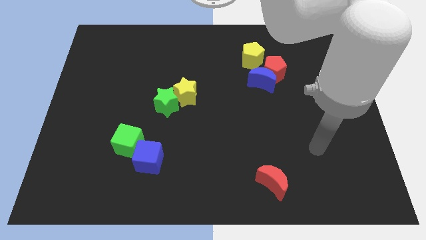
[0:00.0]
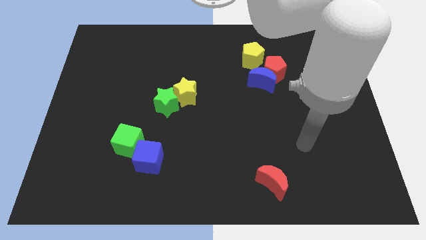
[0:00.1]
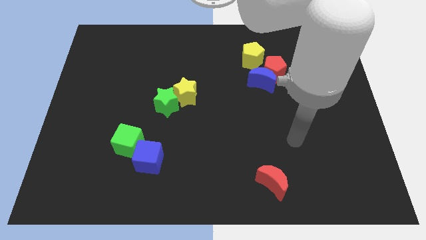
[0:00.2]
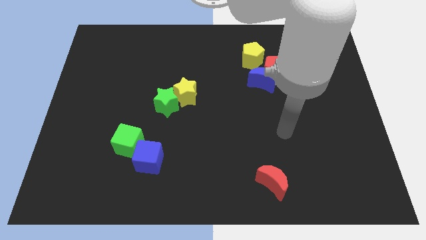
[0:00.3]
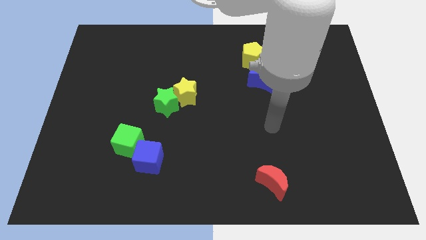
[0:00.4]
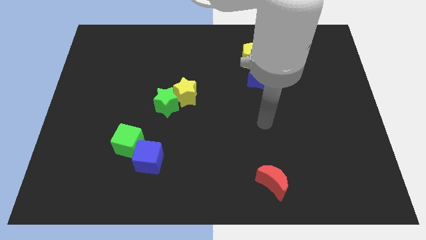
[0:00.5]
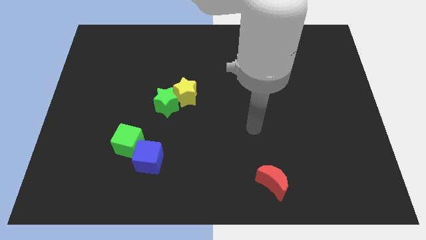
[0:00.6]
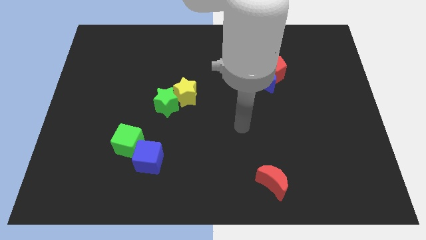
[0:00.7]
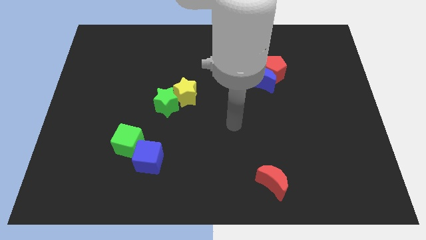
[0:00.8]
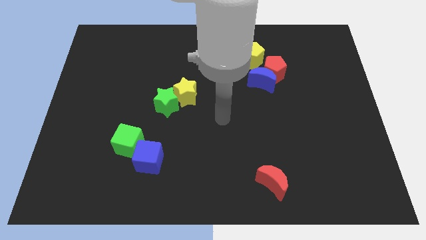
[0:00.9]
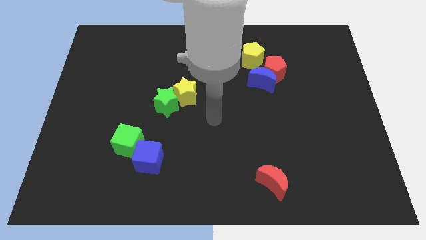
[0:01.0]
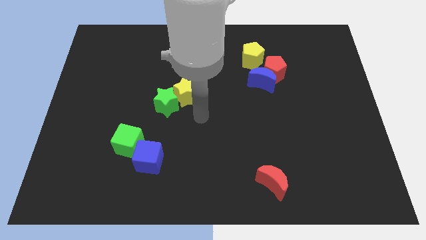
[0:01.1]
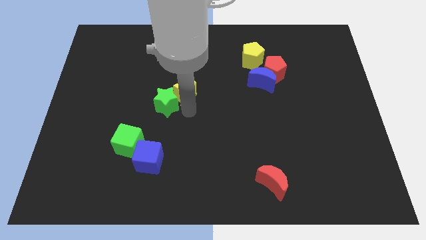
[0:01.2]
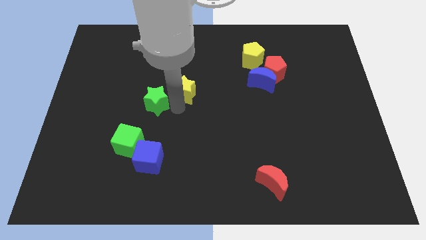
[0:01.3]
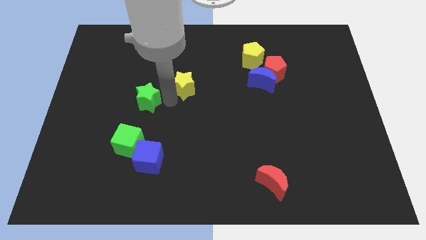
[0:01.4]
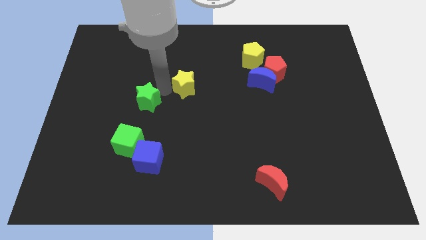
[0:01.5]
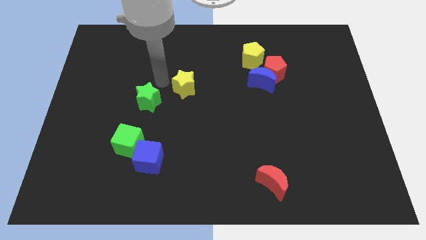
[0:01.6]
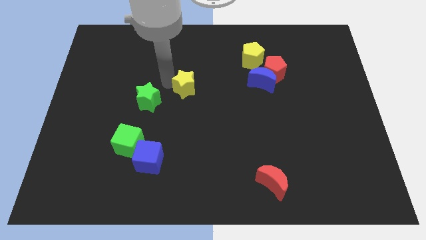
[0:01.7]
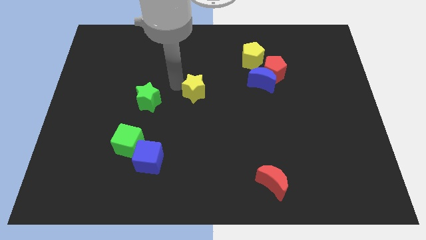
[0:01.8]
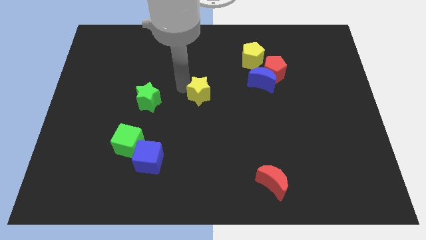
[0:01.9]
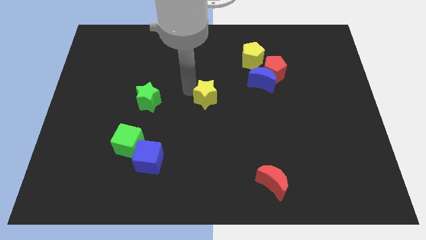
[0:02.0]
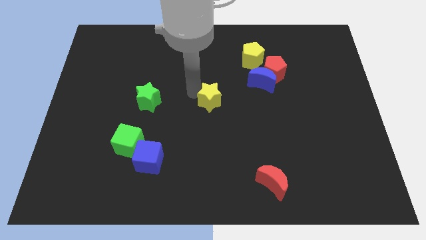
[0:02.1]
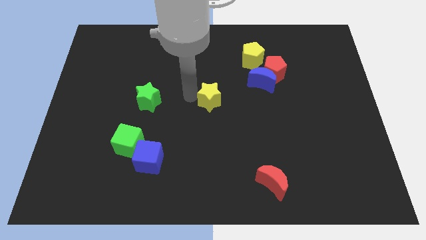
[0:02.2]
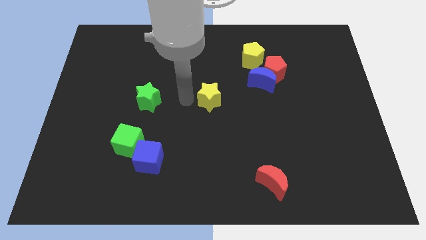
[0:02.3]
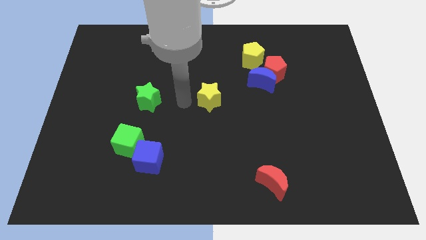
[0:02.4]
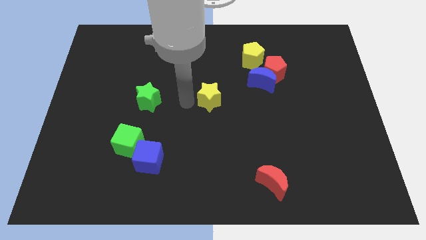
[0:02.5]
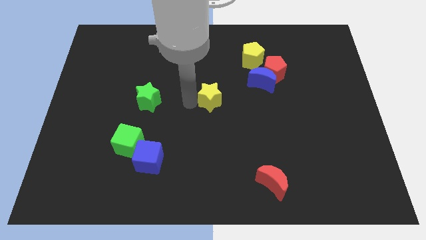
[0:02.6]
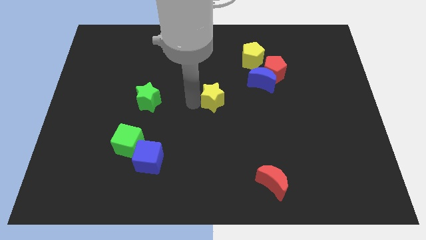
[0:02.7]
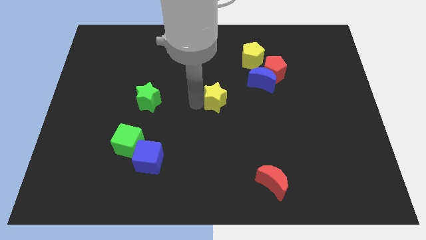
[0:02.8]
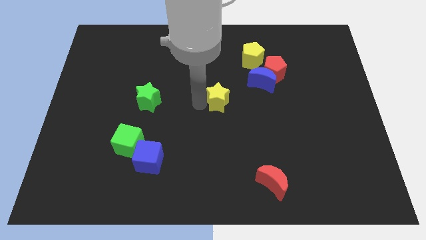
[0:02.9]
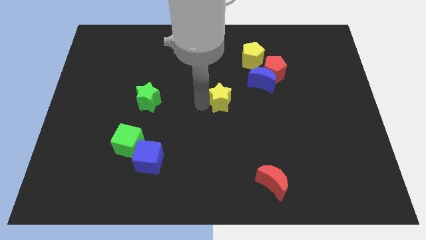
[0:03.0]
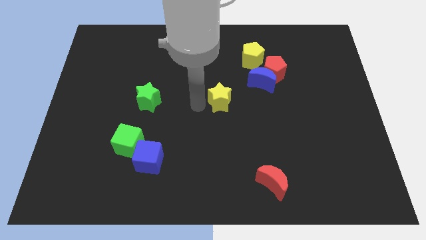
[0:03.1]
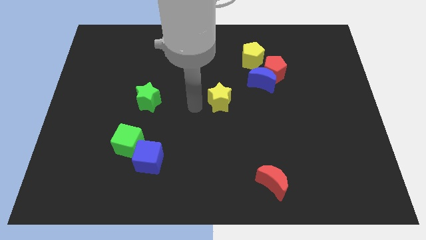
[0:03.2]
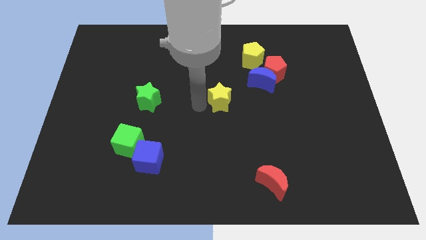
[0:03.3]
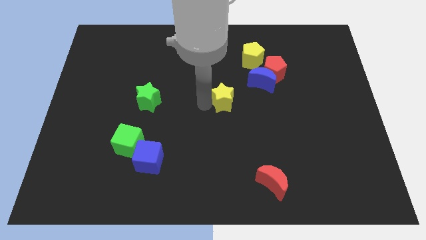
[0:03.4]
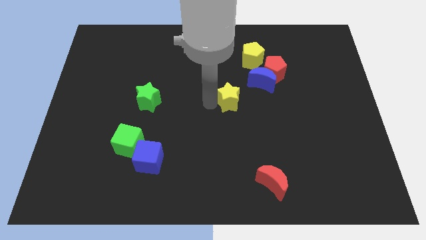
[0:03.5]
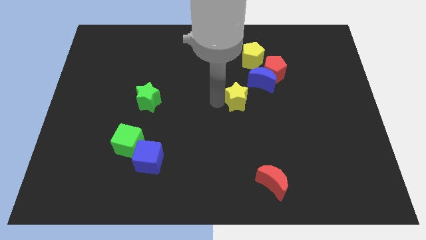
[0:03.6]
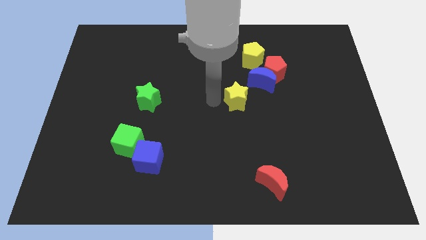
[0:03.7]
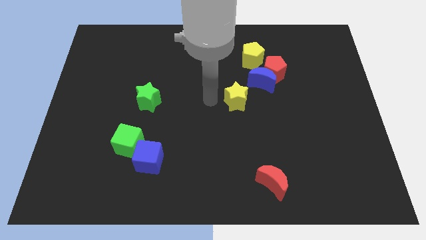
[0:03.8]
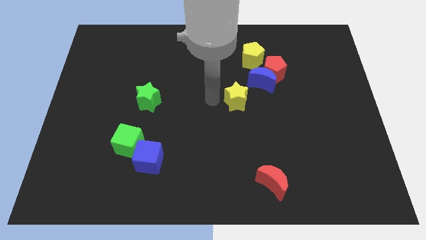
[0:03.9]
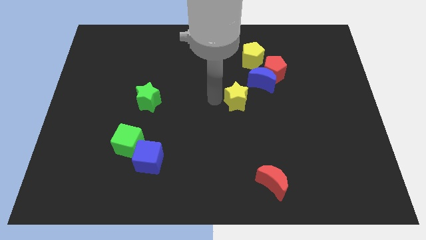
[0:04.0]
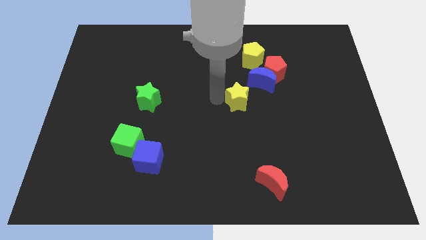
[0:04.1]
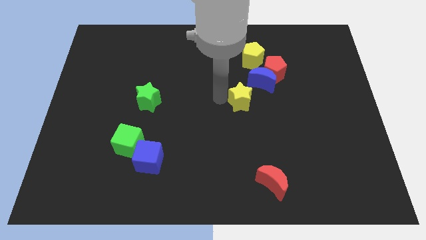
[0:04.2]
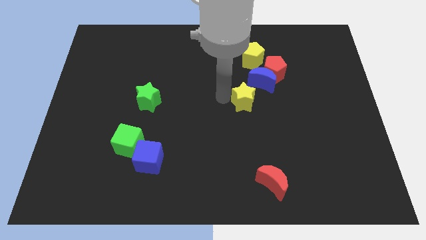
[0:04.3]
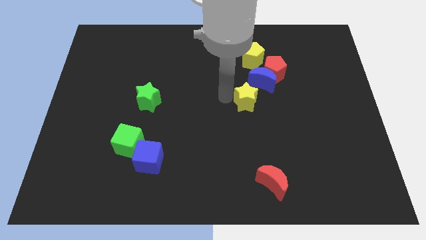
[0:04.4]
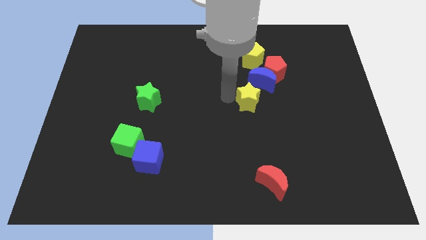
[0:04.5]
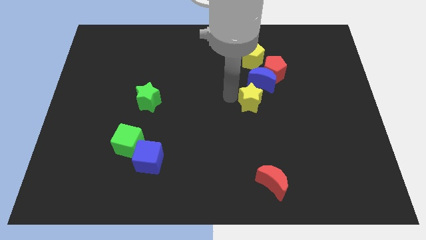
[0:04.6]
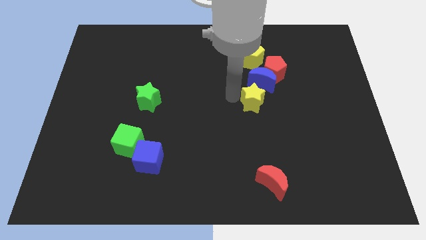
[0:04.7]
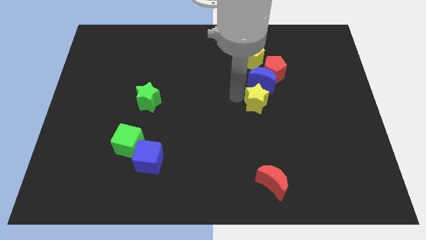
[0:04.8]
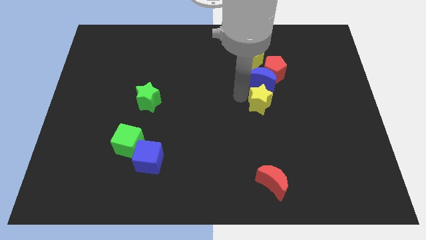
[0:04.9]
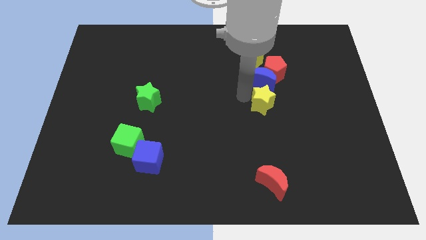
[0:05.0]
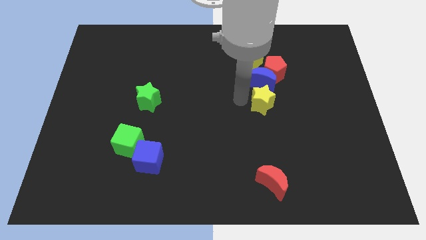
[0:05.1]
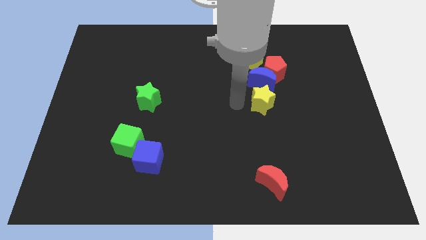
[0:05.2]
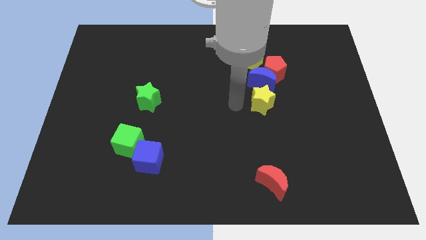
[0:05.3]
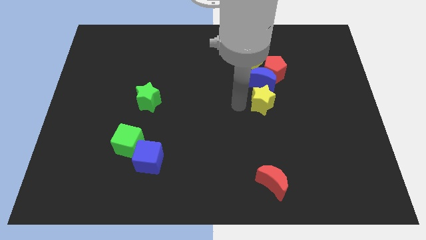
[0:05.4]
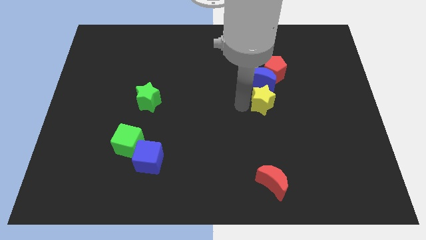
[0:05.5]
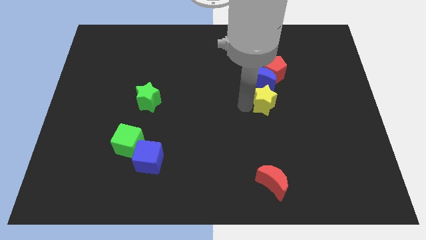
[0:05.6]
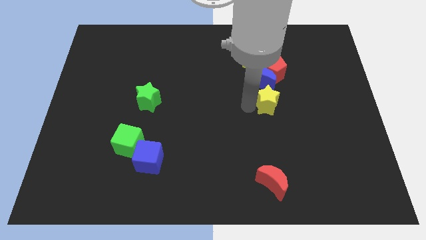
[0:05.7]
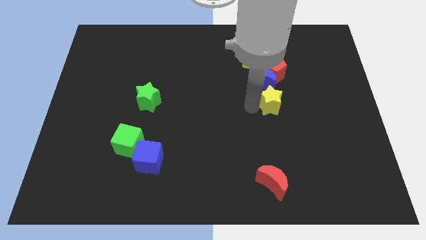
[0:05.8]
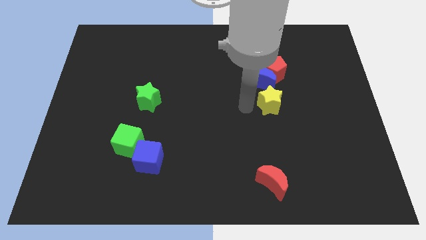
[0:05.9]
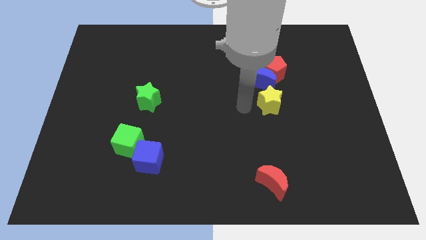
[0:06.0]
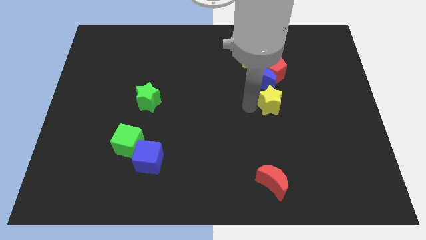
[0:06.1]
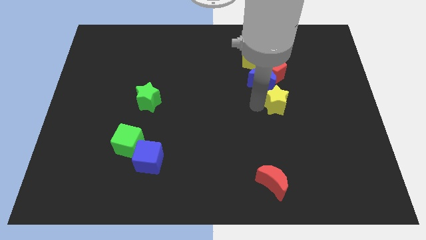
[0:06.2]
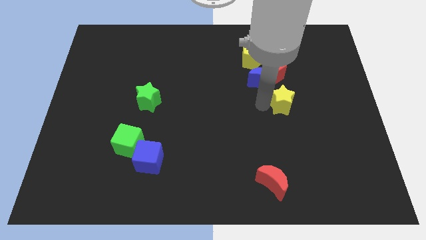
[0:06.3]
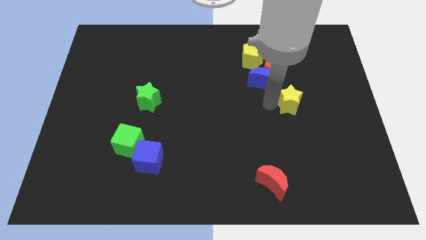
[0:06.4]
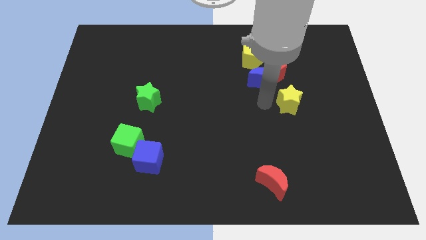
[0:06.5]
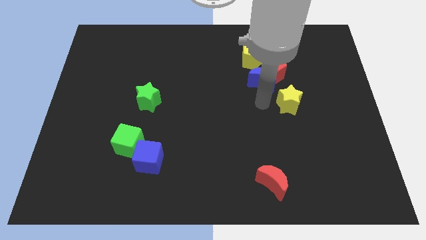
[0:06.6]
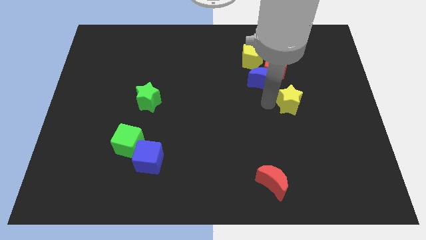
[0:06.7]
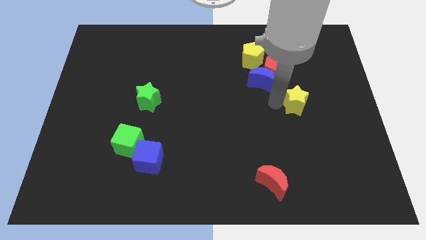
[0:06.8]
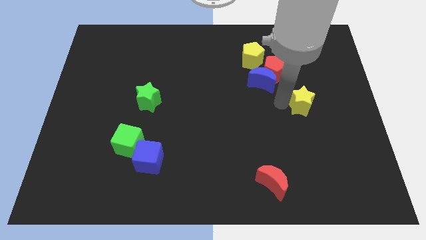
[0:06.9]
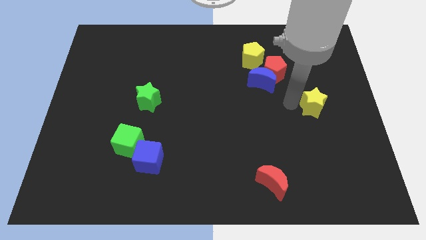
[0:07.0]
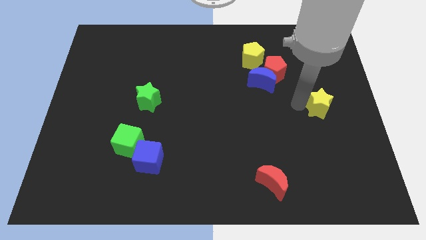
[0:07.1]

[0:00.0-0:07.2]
push the yellow star to the center right
